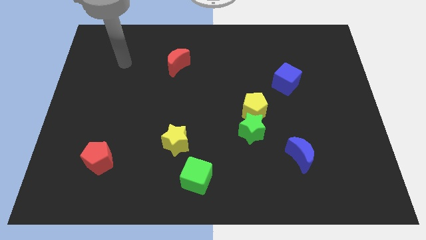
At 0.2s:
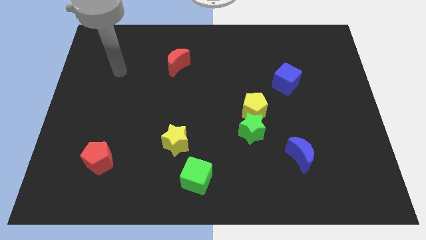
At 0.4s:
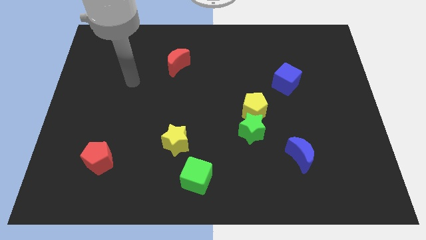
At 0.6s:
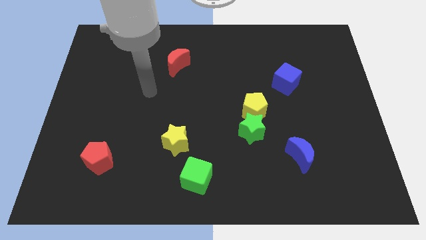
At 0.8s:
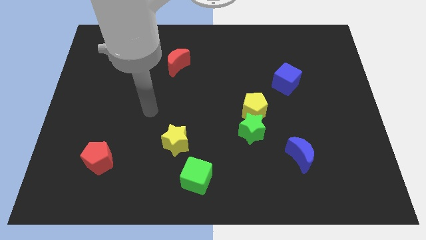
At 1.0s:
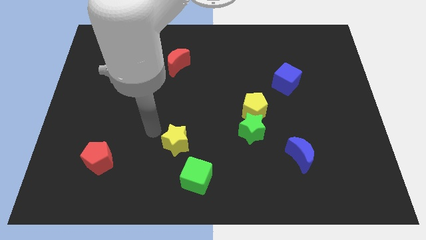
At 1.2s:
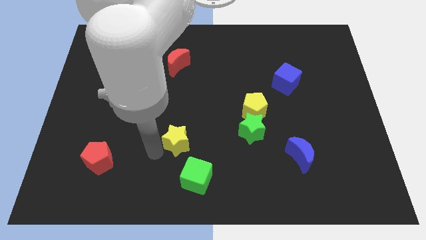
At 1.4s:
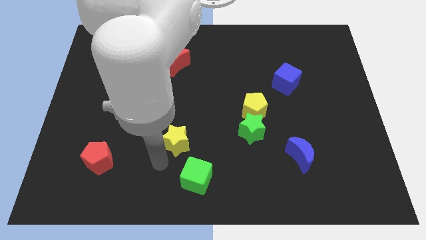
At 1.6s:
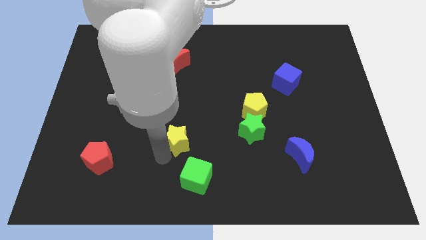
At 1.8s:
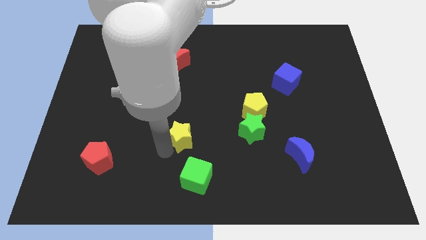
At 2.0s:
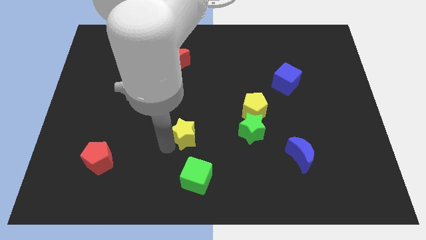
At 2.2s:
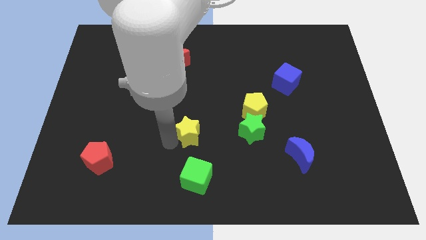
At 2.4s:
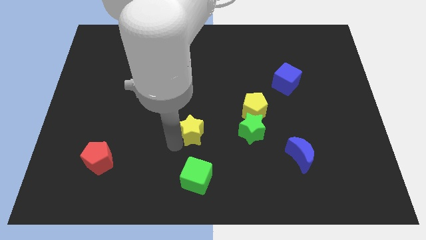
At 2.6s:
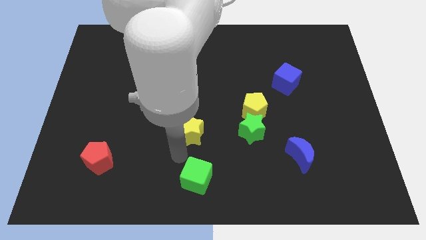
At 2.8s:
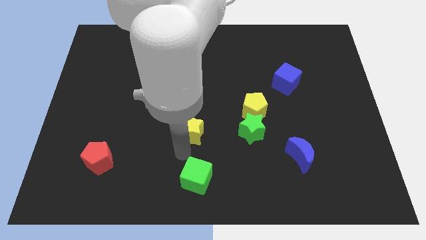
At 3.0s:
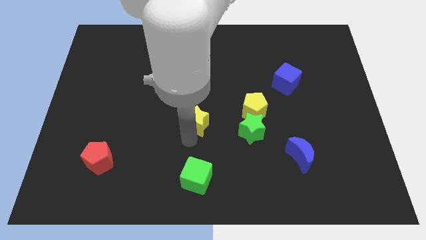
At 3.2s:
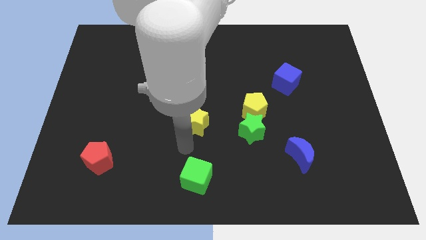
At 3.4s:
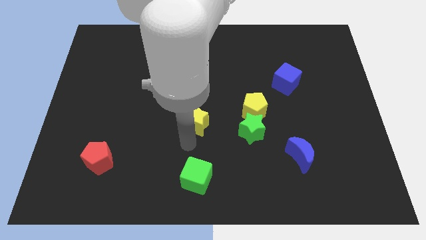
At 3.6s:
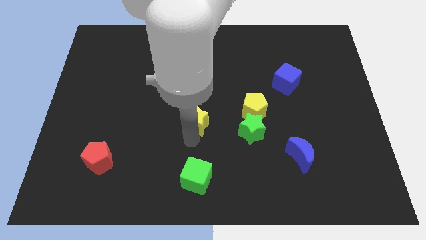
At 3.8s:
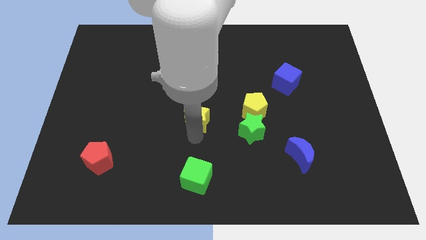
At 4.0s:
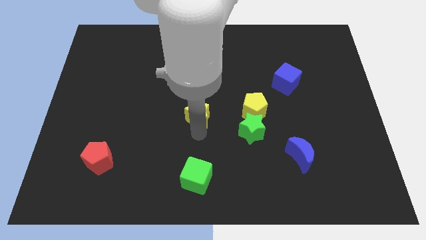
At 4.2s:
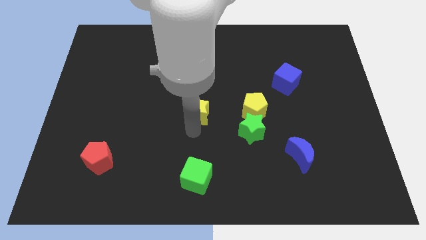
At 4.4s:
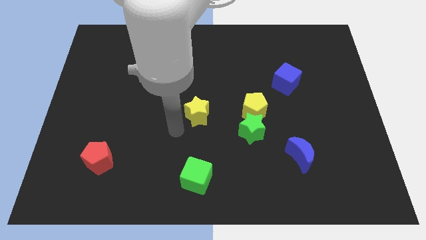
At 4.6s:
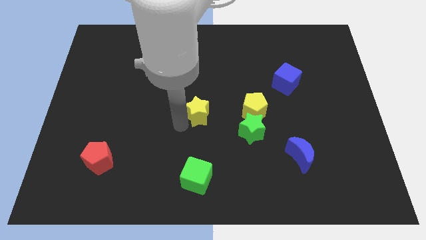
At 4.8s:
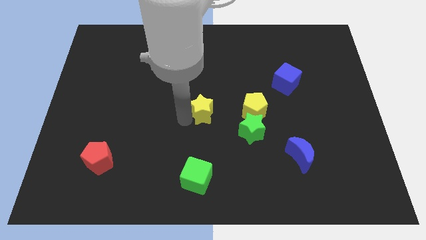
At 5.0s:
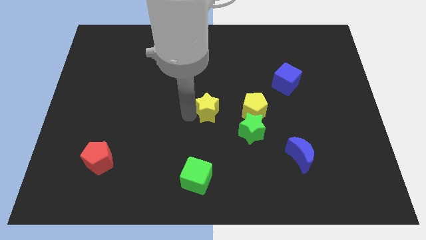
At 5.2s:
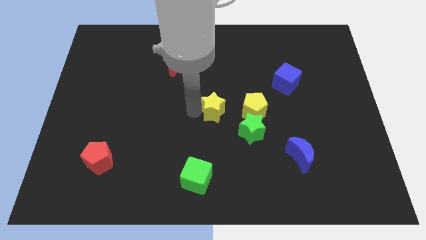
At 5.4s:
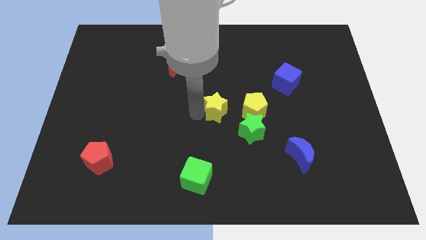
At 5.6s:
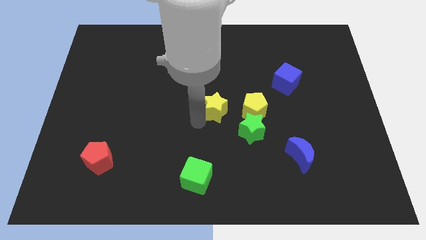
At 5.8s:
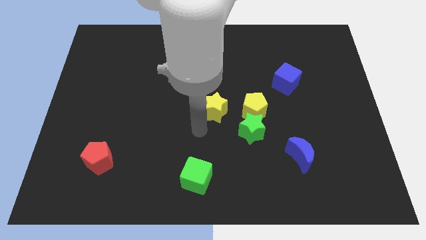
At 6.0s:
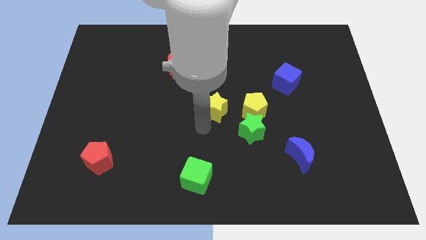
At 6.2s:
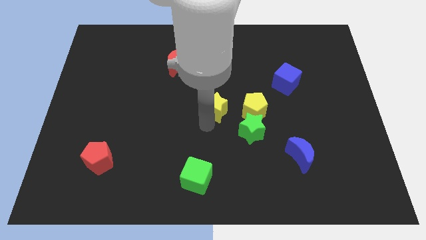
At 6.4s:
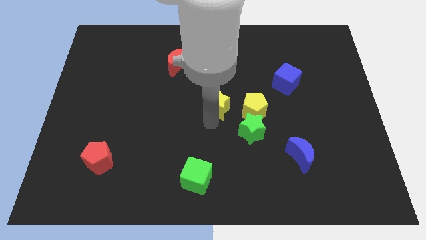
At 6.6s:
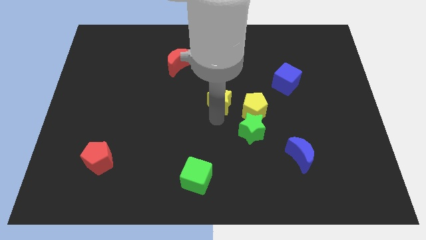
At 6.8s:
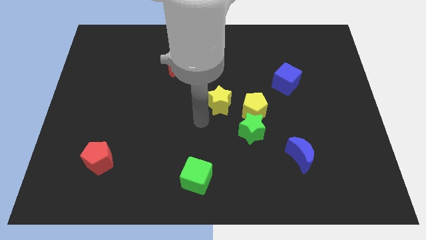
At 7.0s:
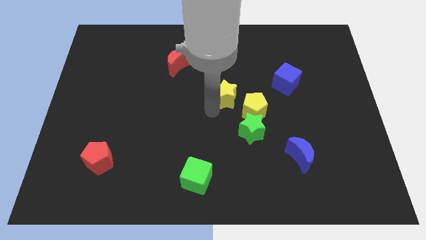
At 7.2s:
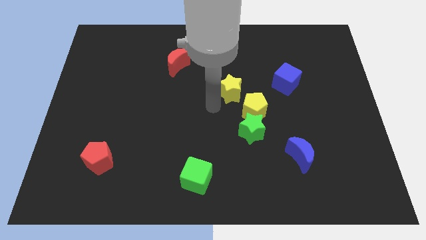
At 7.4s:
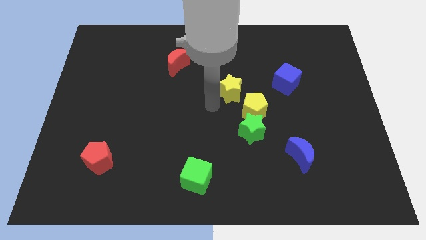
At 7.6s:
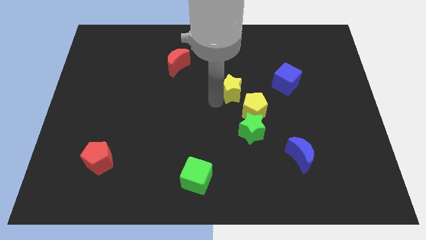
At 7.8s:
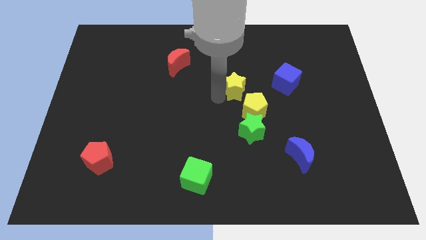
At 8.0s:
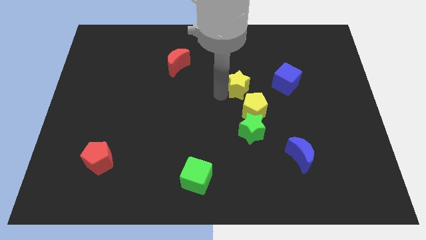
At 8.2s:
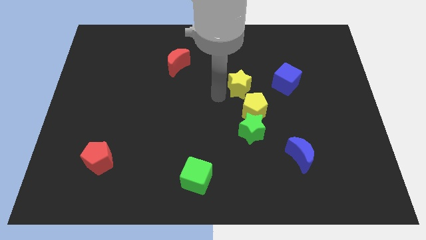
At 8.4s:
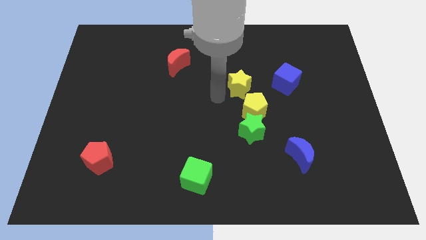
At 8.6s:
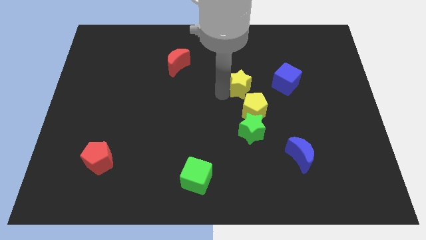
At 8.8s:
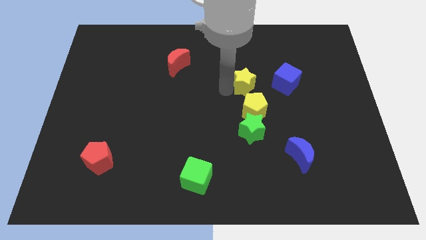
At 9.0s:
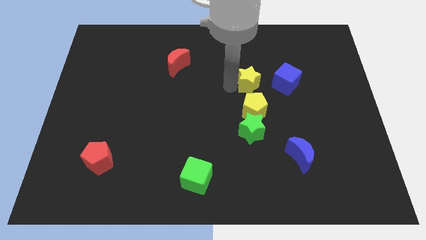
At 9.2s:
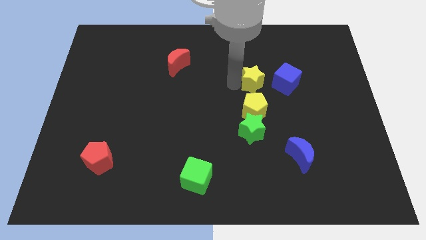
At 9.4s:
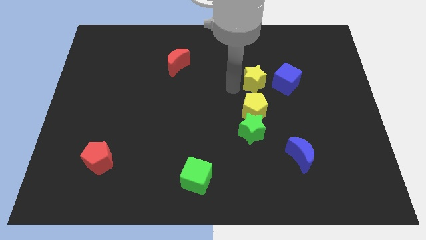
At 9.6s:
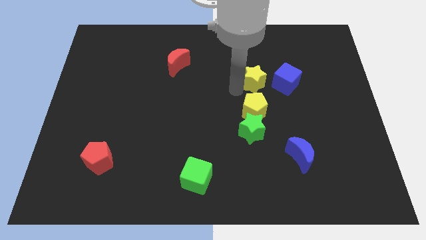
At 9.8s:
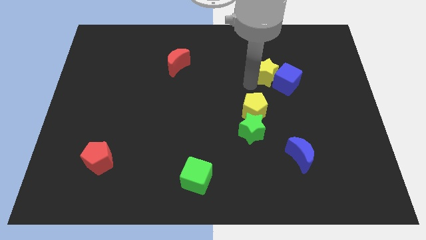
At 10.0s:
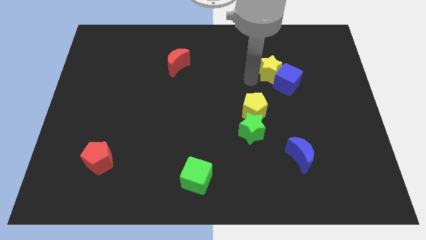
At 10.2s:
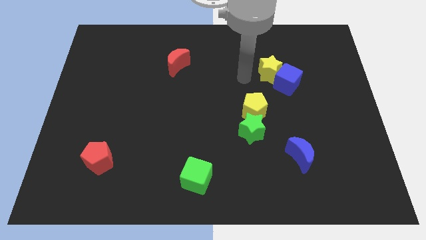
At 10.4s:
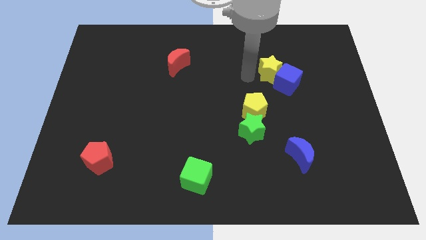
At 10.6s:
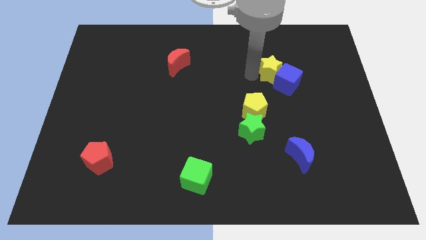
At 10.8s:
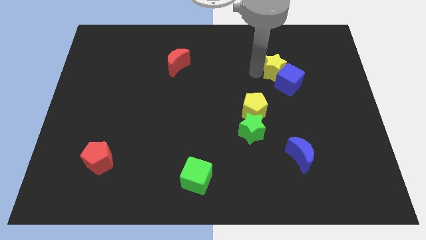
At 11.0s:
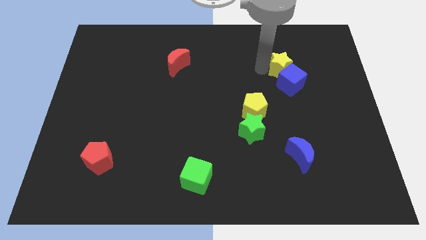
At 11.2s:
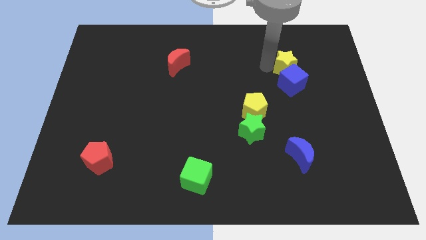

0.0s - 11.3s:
push the yellow star to the top right of the blue cube

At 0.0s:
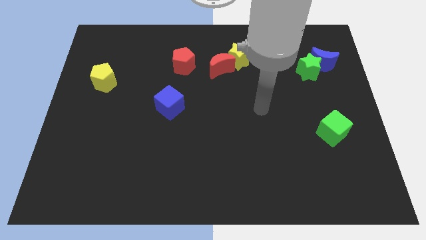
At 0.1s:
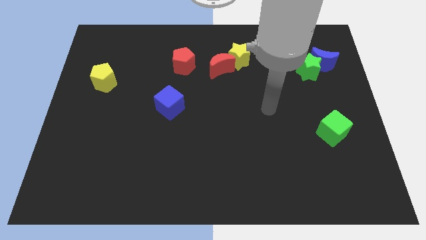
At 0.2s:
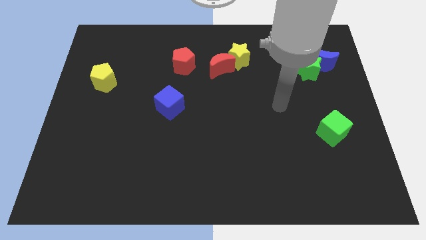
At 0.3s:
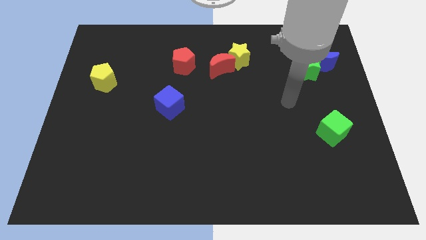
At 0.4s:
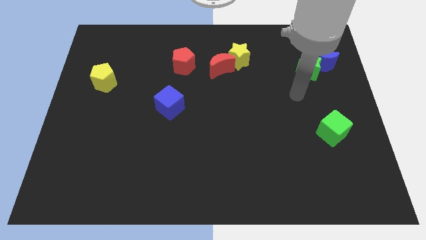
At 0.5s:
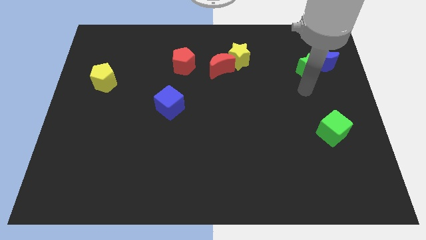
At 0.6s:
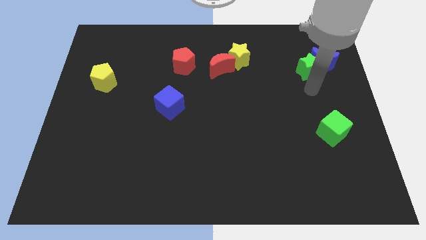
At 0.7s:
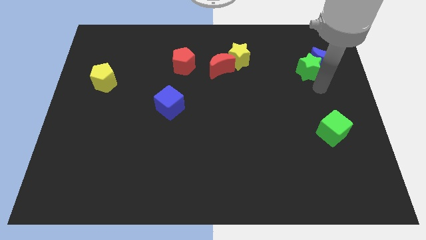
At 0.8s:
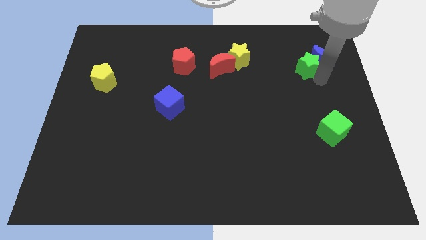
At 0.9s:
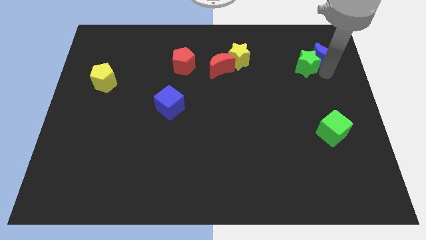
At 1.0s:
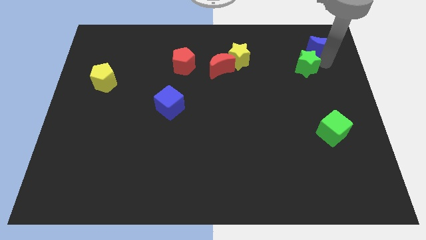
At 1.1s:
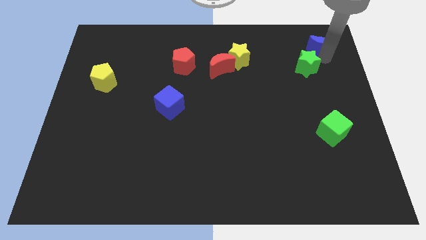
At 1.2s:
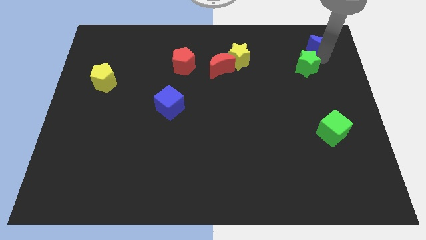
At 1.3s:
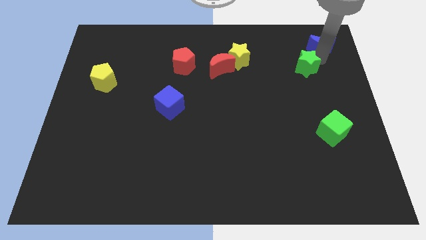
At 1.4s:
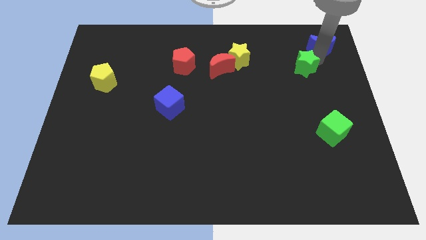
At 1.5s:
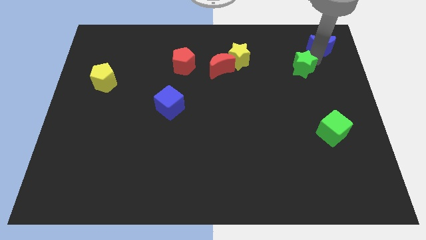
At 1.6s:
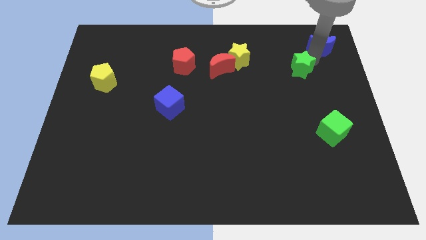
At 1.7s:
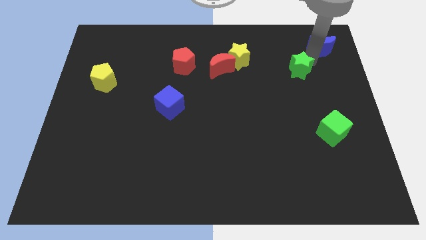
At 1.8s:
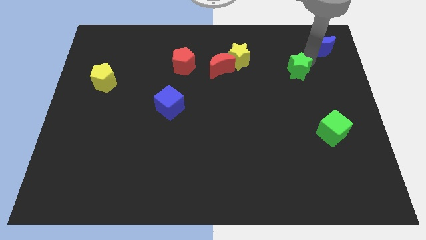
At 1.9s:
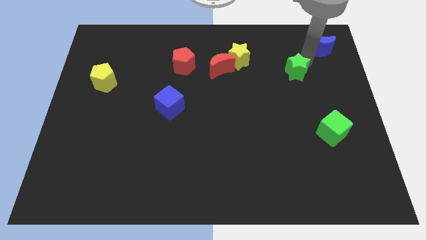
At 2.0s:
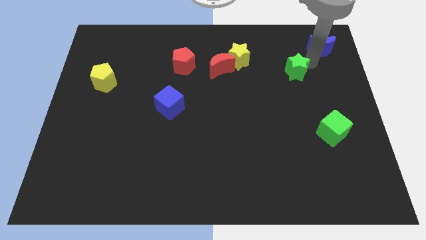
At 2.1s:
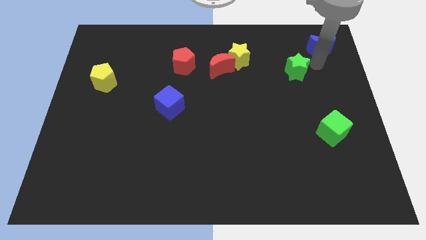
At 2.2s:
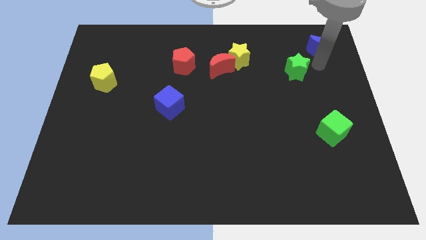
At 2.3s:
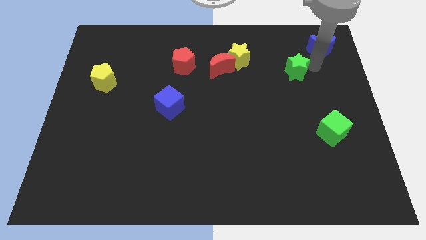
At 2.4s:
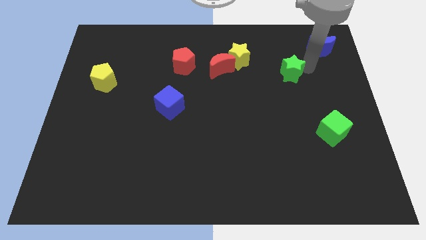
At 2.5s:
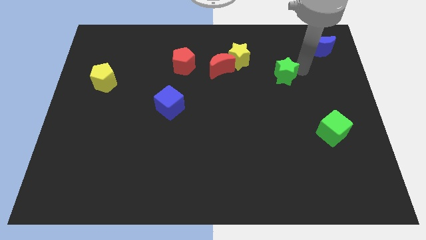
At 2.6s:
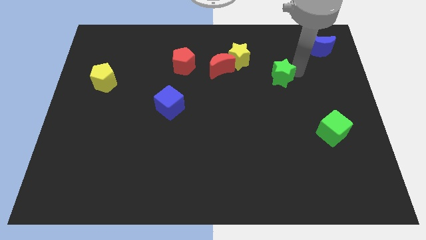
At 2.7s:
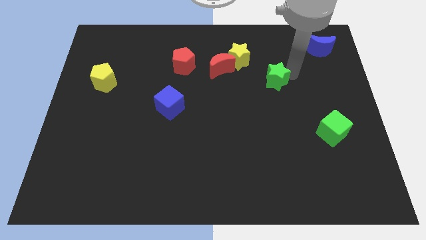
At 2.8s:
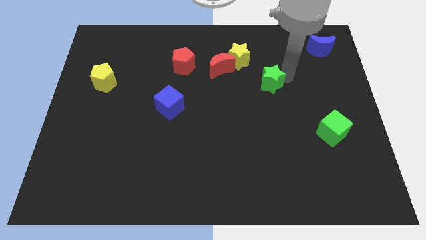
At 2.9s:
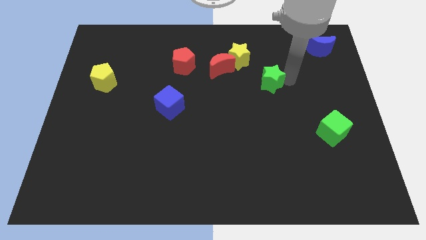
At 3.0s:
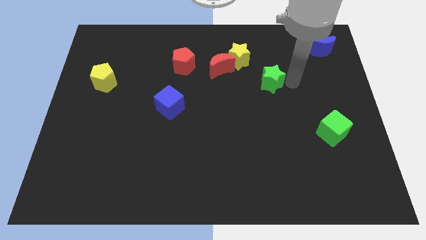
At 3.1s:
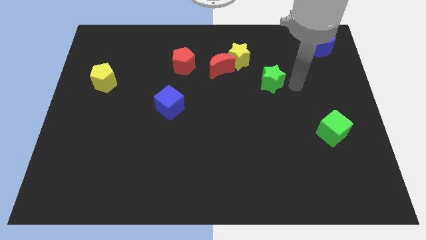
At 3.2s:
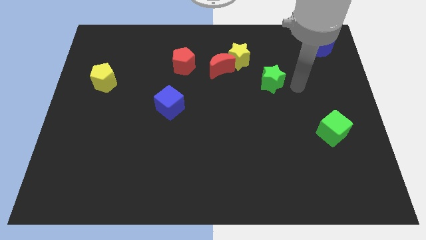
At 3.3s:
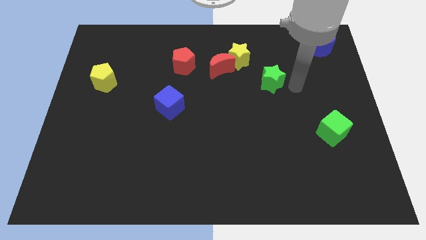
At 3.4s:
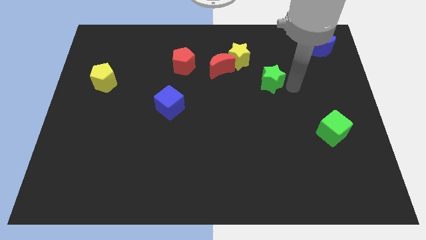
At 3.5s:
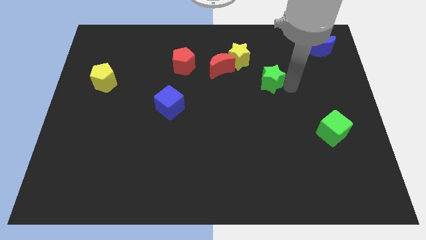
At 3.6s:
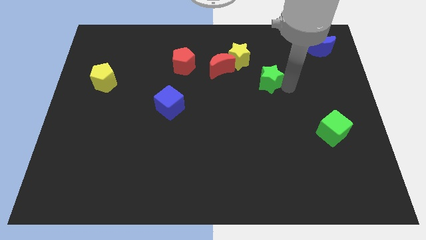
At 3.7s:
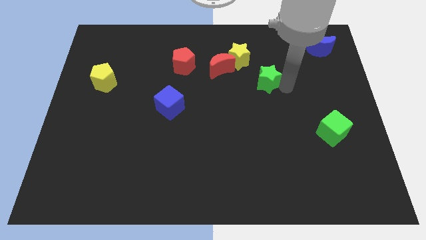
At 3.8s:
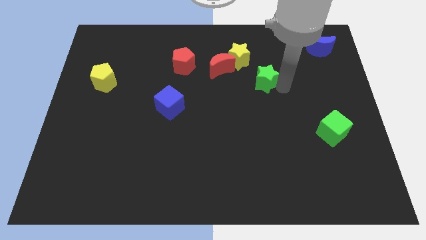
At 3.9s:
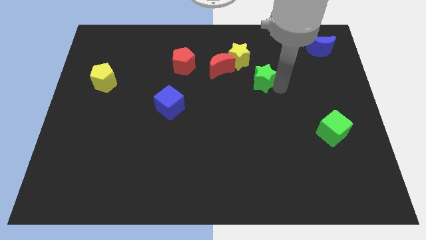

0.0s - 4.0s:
push the green star diagonally down and to the right of the red moon
